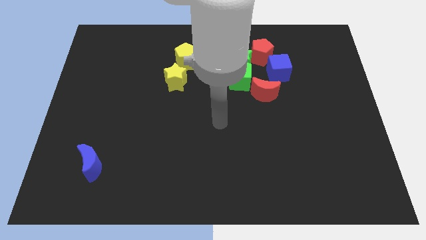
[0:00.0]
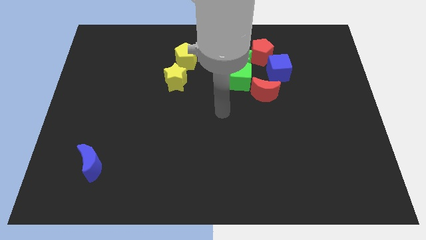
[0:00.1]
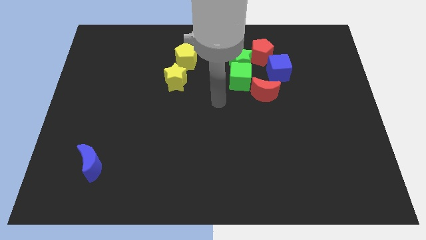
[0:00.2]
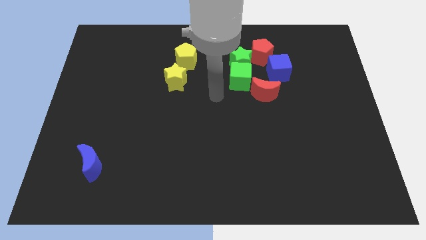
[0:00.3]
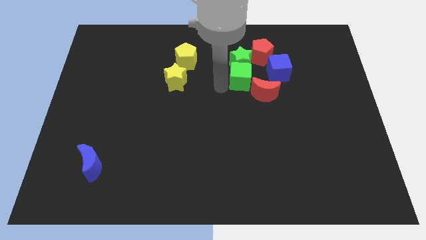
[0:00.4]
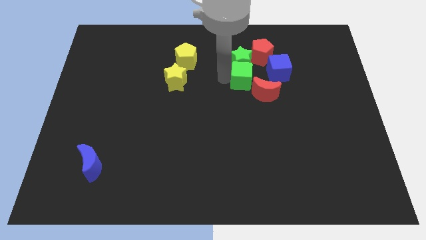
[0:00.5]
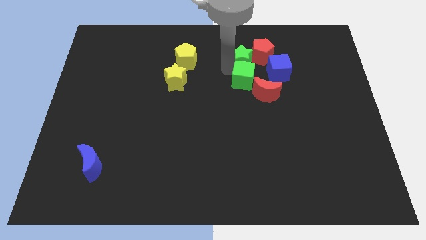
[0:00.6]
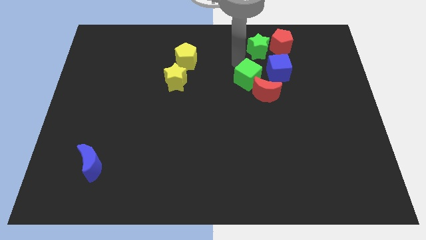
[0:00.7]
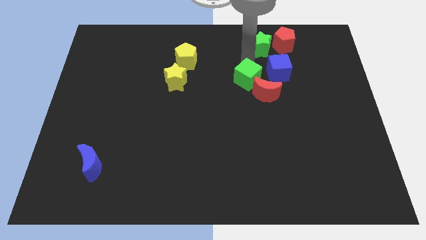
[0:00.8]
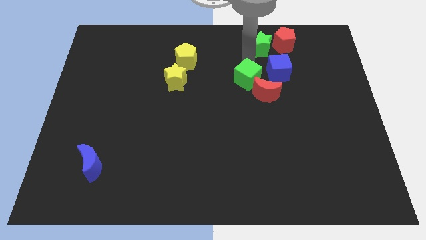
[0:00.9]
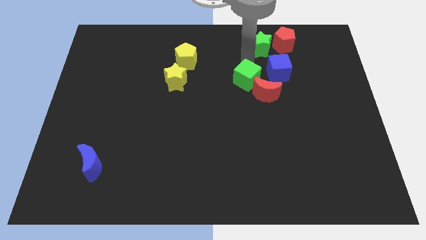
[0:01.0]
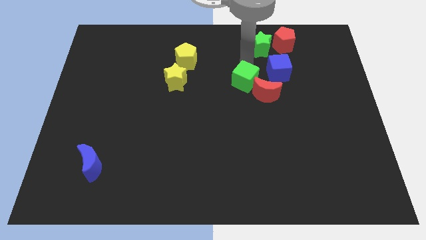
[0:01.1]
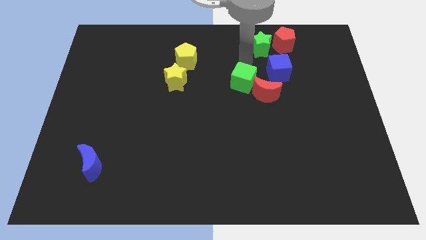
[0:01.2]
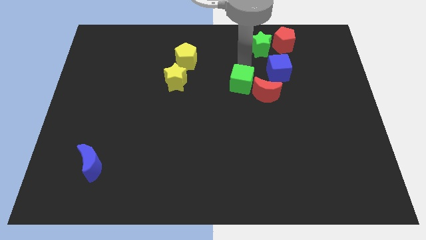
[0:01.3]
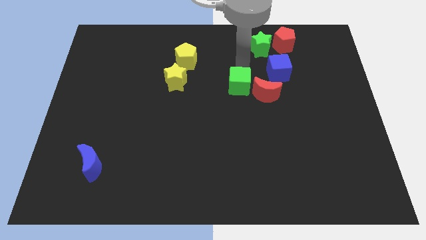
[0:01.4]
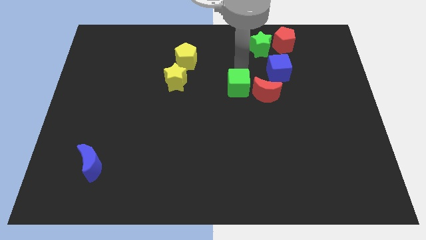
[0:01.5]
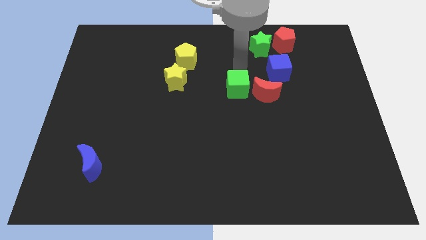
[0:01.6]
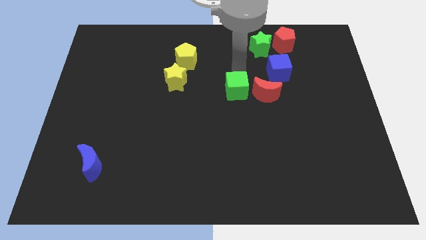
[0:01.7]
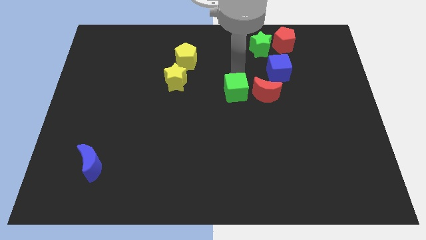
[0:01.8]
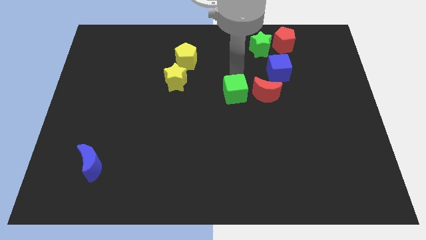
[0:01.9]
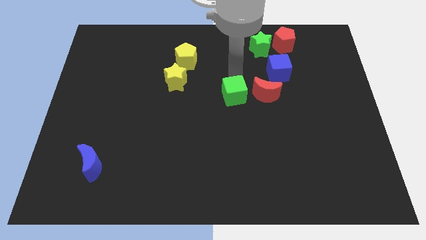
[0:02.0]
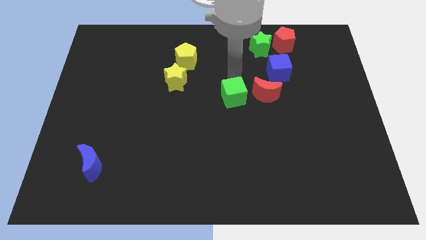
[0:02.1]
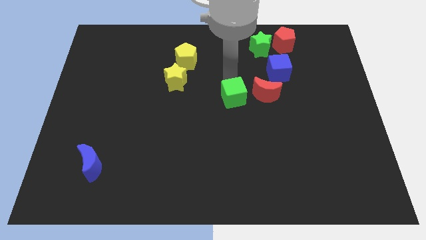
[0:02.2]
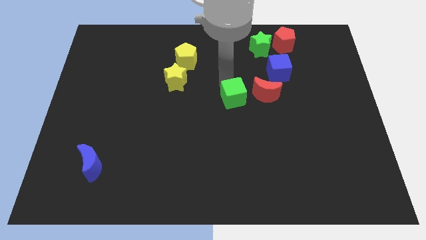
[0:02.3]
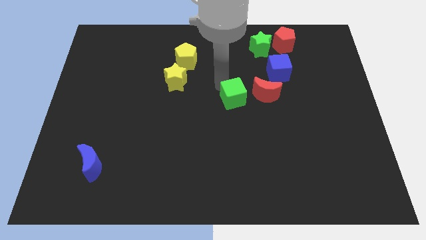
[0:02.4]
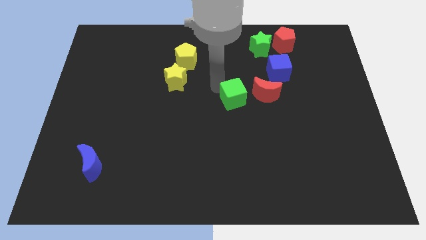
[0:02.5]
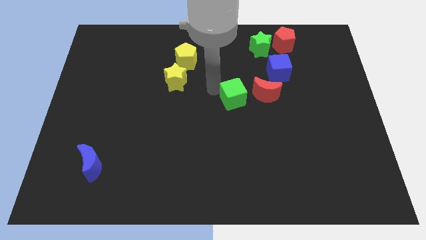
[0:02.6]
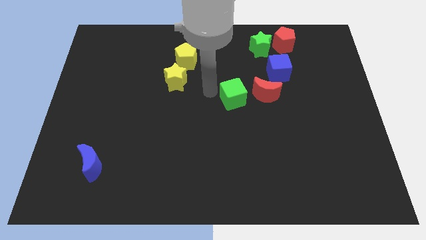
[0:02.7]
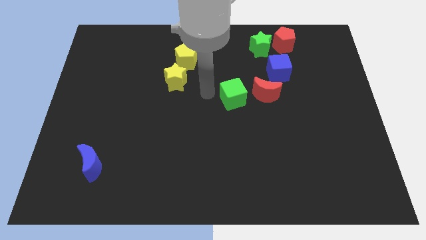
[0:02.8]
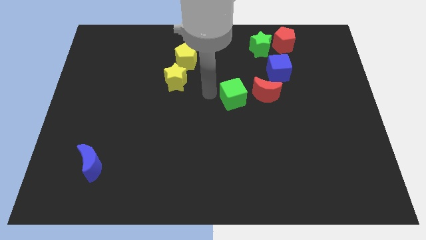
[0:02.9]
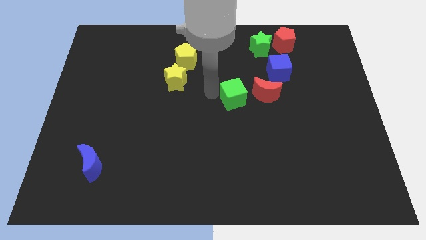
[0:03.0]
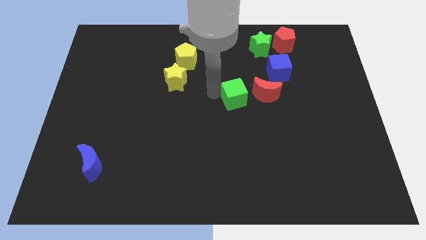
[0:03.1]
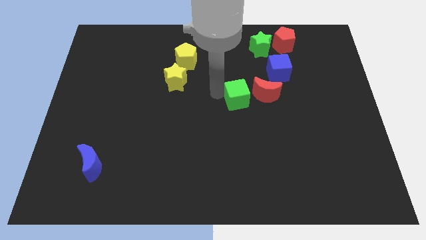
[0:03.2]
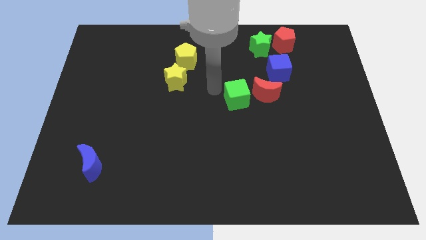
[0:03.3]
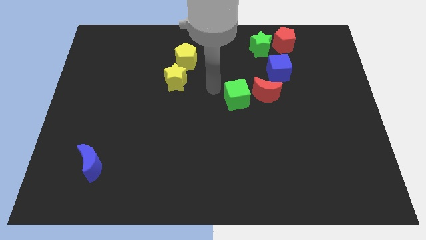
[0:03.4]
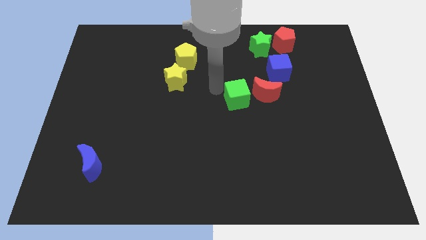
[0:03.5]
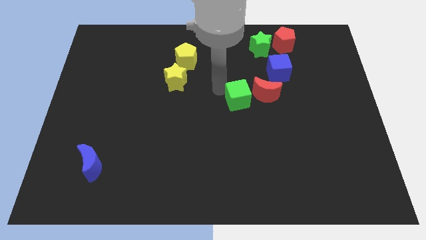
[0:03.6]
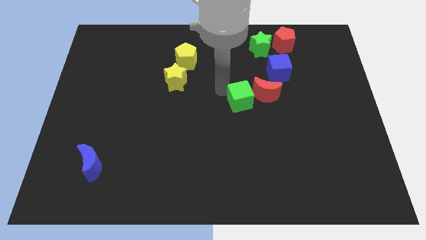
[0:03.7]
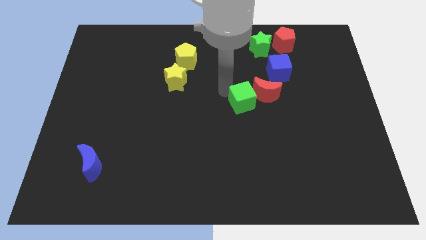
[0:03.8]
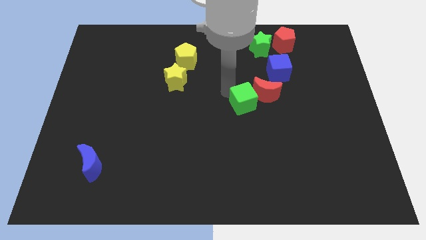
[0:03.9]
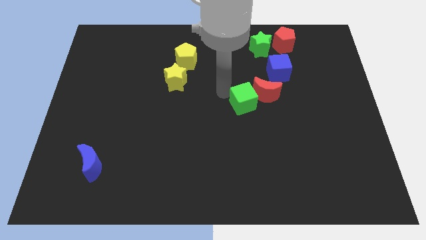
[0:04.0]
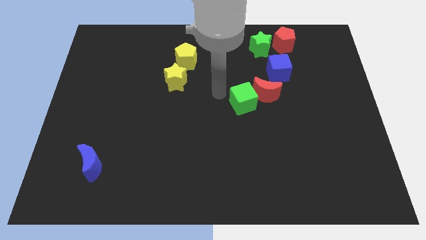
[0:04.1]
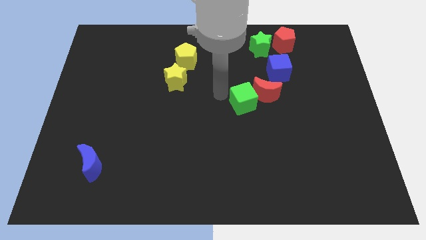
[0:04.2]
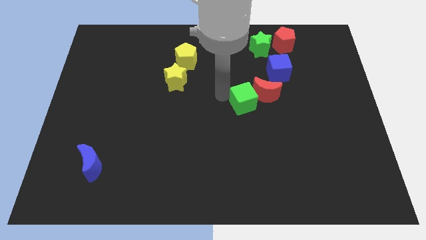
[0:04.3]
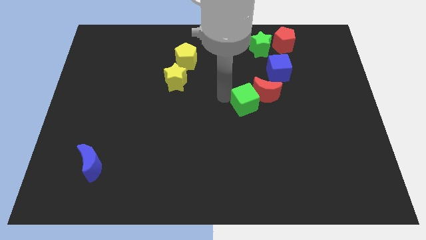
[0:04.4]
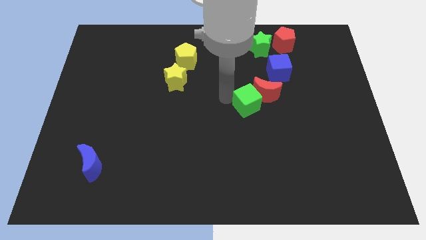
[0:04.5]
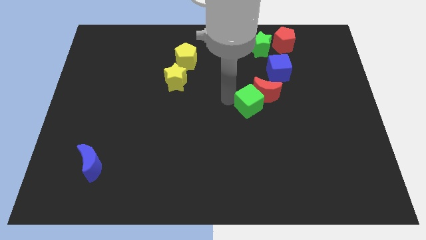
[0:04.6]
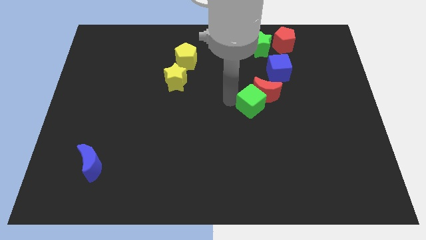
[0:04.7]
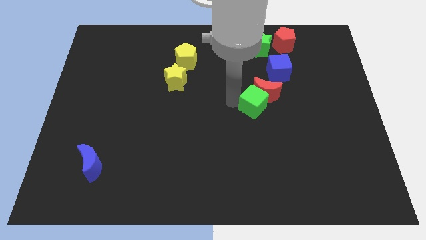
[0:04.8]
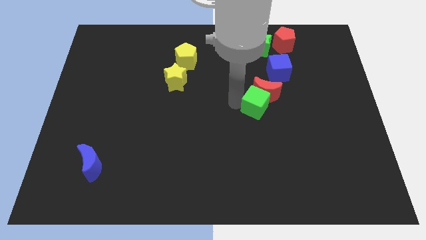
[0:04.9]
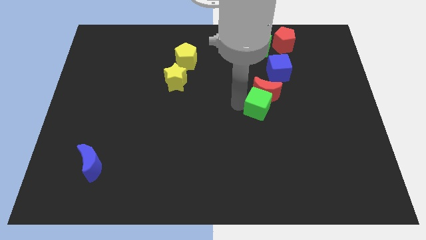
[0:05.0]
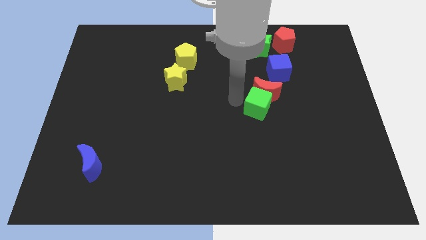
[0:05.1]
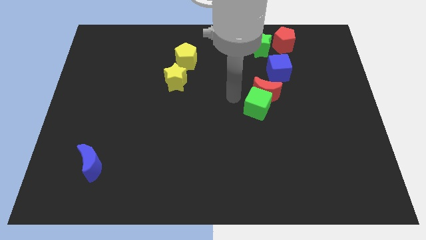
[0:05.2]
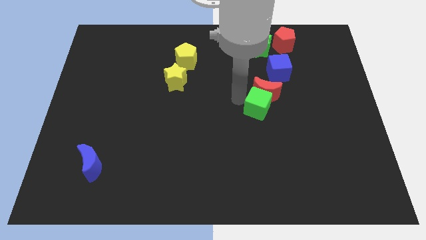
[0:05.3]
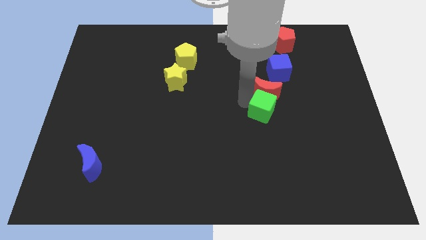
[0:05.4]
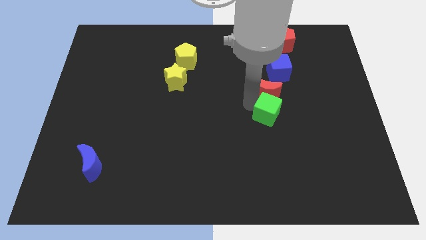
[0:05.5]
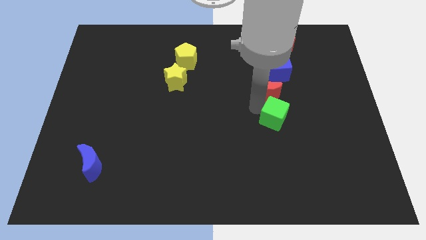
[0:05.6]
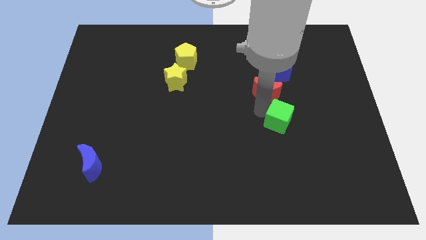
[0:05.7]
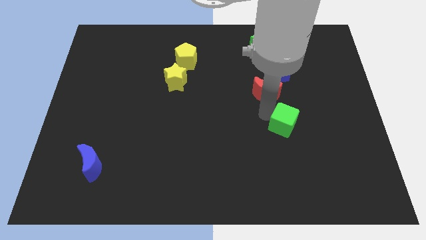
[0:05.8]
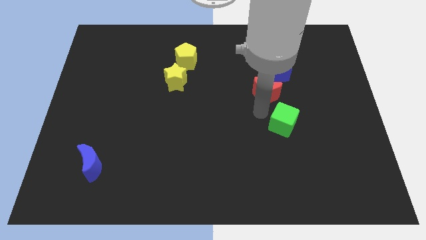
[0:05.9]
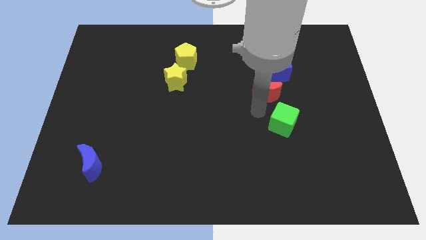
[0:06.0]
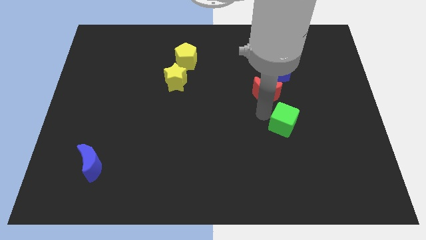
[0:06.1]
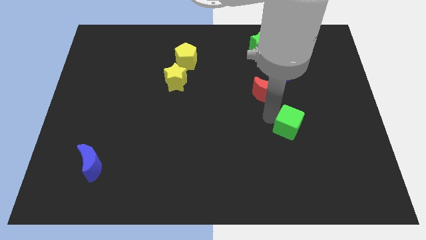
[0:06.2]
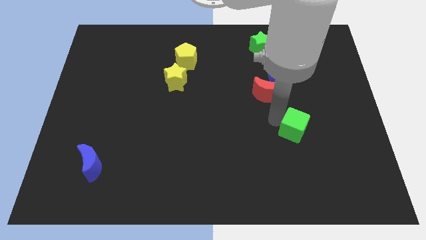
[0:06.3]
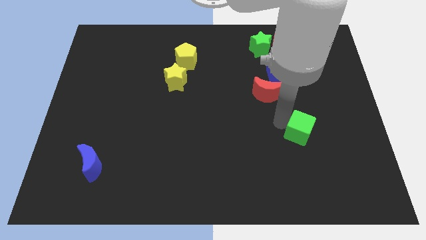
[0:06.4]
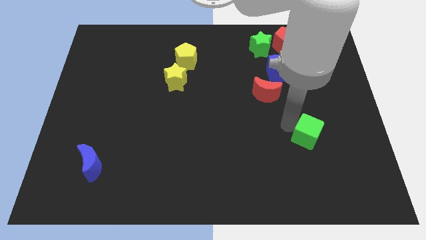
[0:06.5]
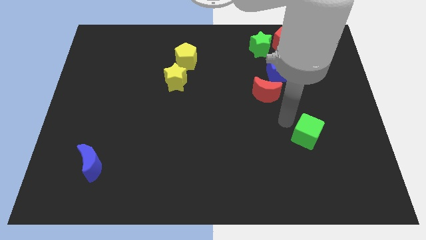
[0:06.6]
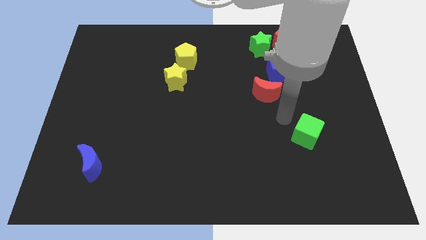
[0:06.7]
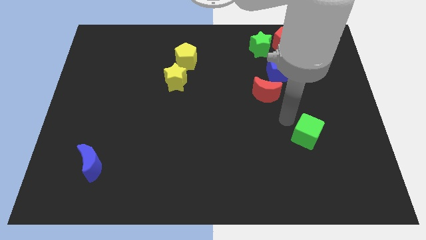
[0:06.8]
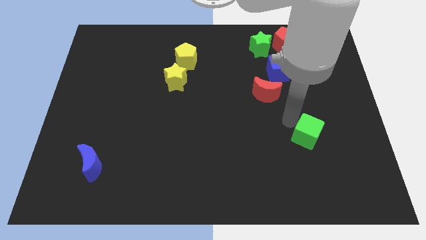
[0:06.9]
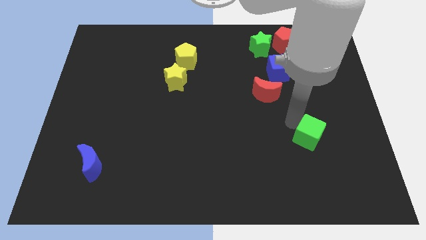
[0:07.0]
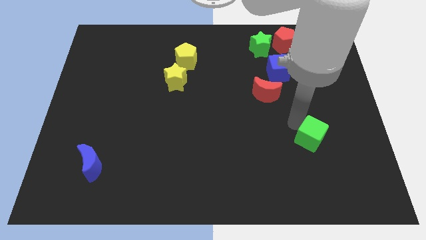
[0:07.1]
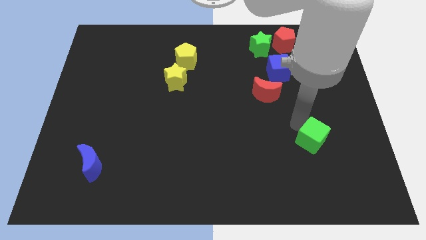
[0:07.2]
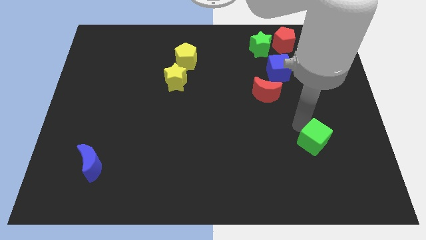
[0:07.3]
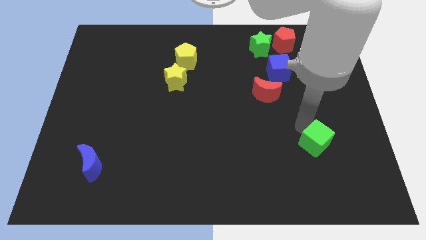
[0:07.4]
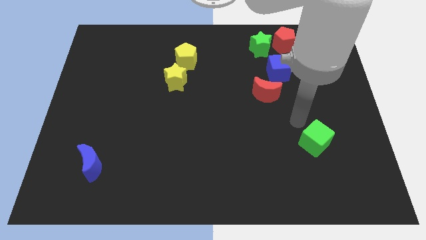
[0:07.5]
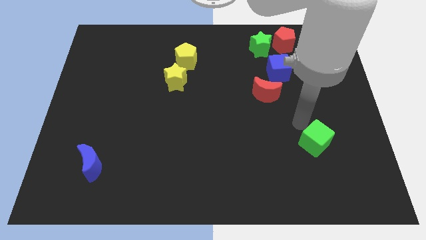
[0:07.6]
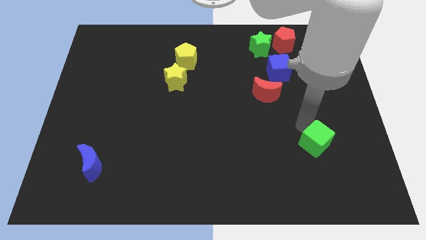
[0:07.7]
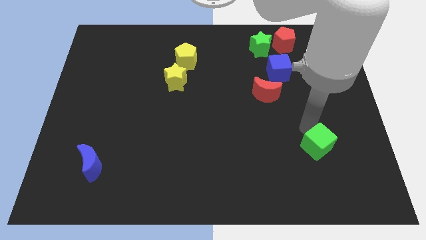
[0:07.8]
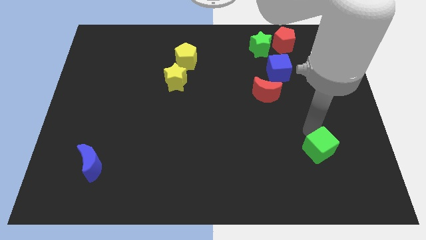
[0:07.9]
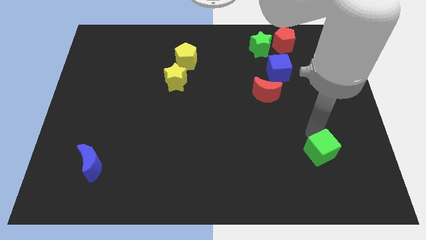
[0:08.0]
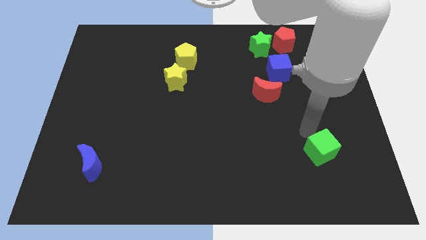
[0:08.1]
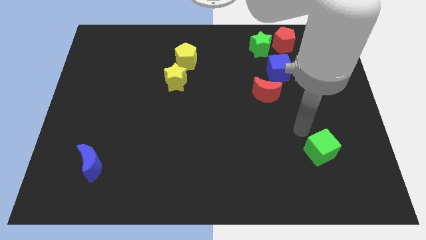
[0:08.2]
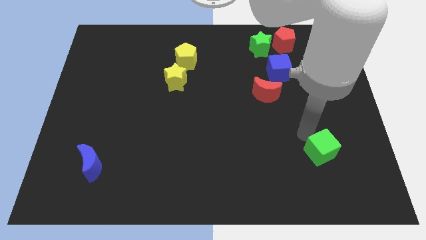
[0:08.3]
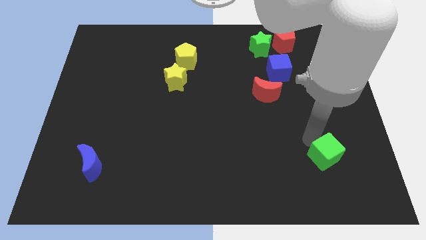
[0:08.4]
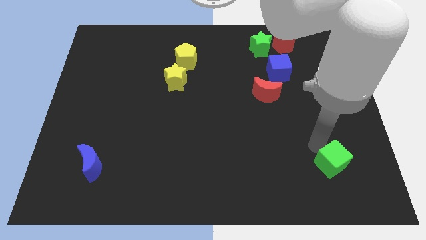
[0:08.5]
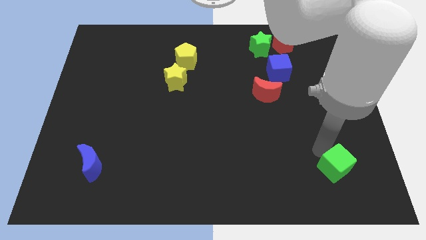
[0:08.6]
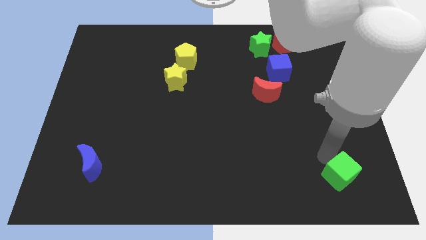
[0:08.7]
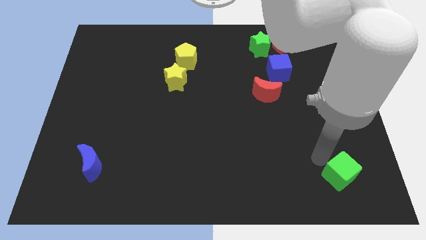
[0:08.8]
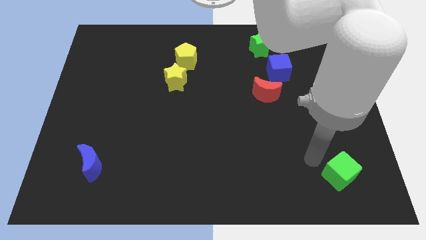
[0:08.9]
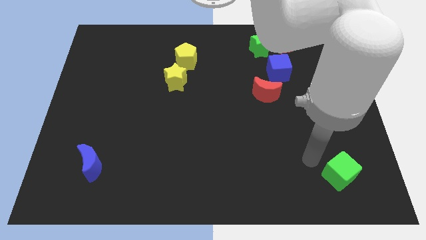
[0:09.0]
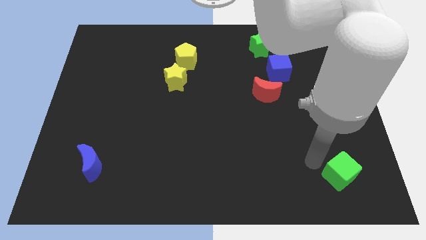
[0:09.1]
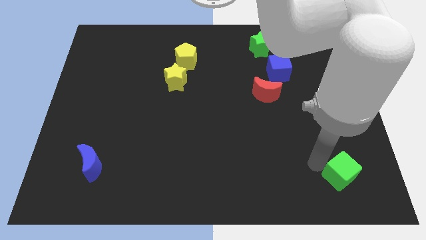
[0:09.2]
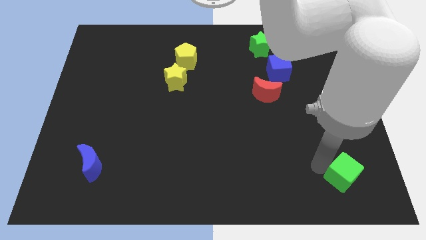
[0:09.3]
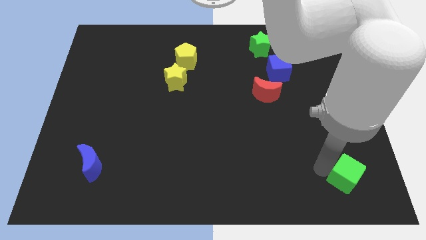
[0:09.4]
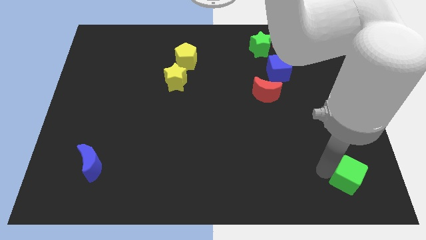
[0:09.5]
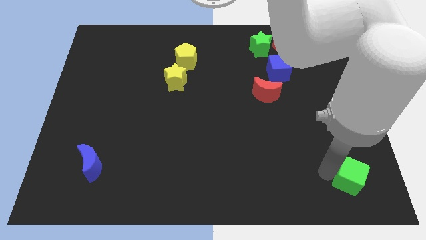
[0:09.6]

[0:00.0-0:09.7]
put the green cube to the bottom right of the board
